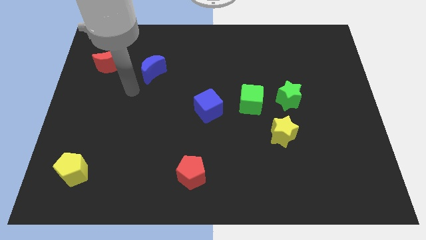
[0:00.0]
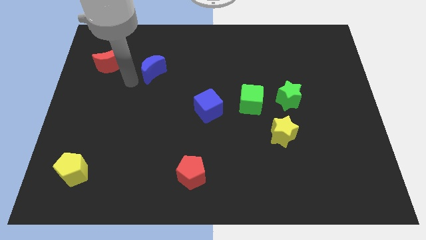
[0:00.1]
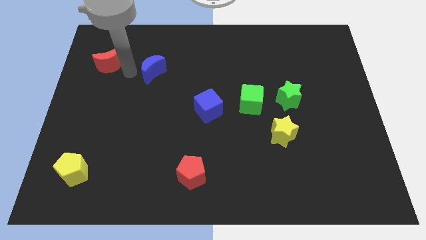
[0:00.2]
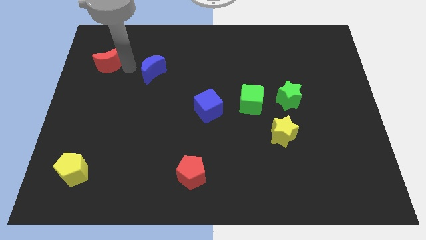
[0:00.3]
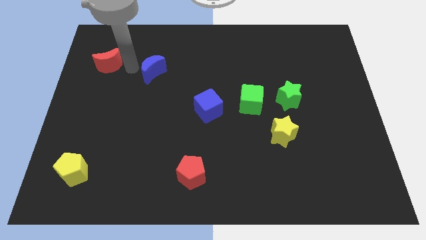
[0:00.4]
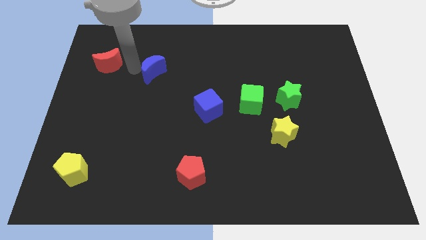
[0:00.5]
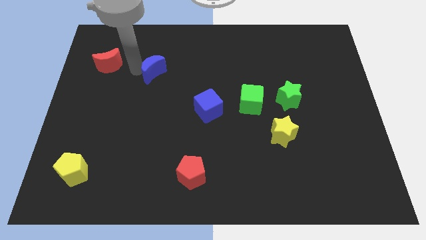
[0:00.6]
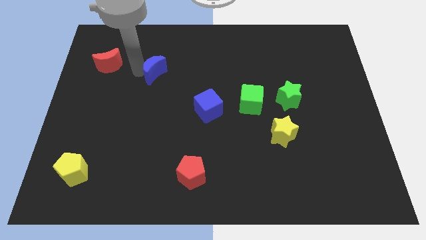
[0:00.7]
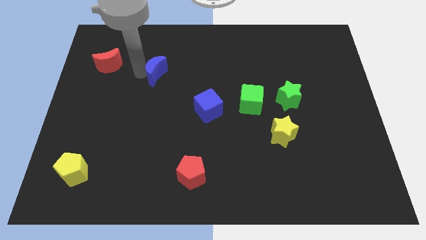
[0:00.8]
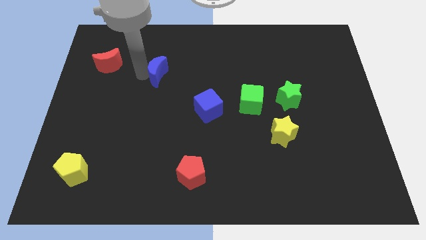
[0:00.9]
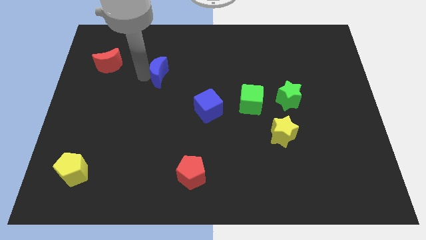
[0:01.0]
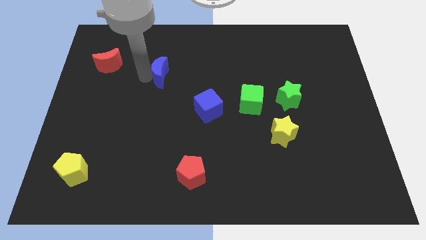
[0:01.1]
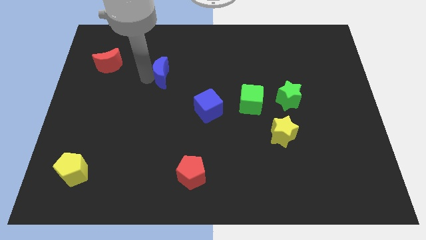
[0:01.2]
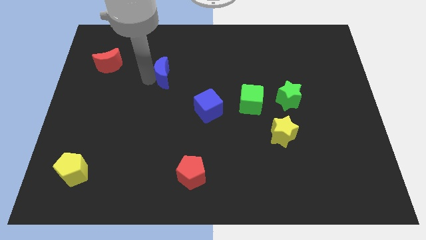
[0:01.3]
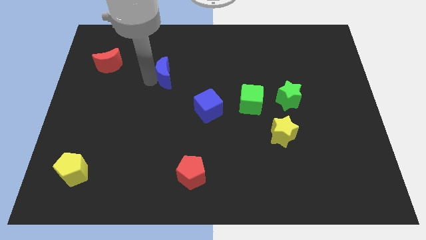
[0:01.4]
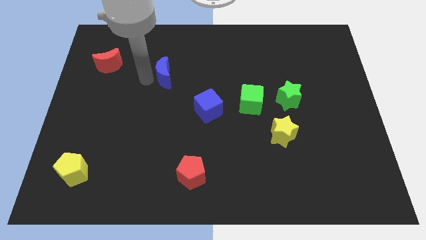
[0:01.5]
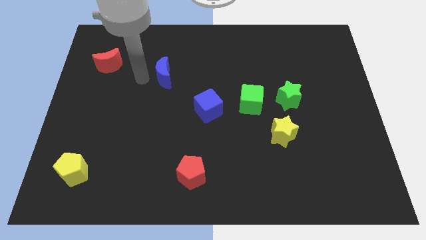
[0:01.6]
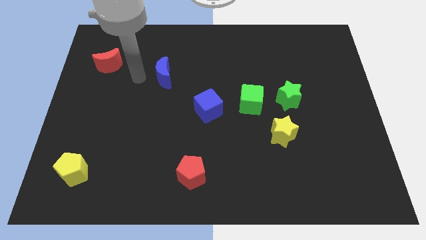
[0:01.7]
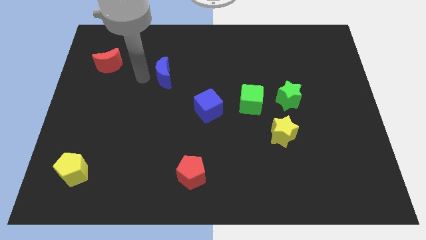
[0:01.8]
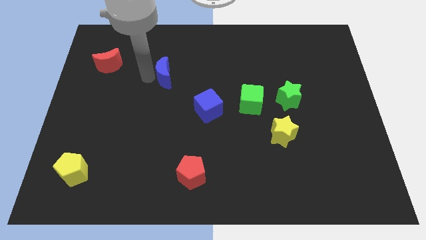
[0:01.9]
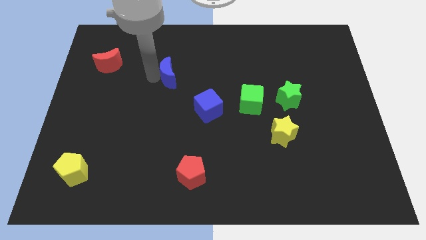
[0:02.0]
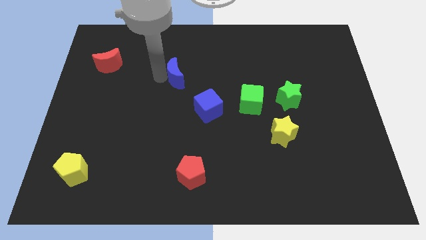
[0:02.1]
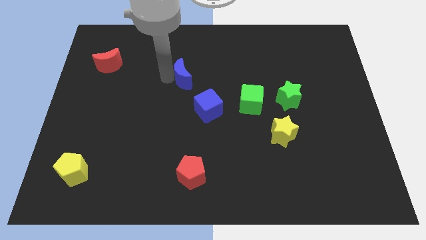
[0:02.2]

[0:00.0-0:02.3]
slide the blue moon a bit to the right

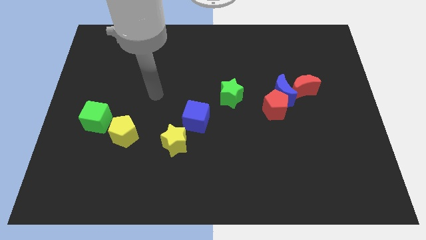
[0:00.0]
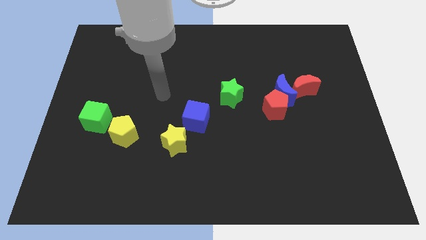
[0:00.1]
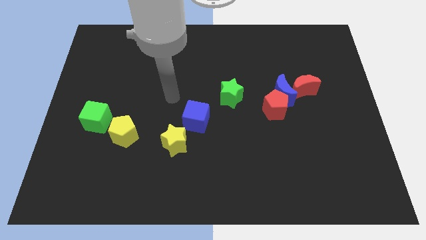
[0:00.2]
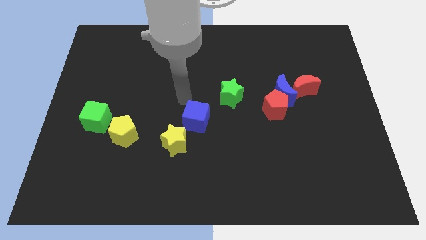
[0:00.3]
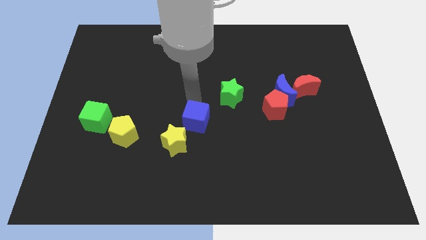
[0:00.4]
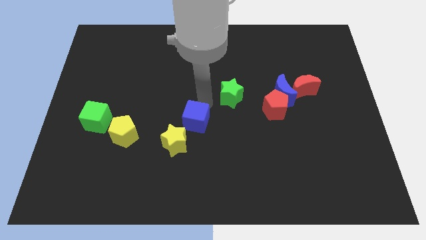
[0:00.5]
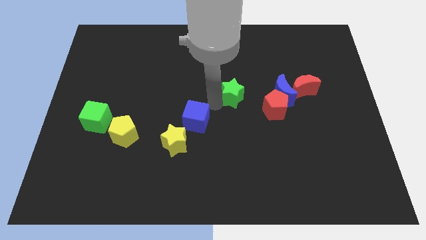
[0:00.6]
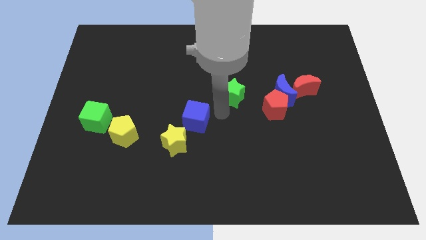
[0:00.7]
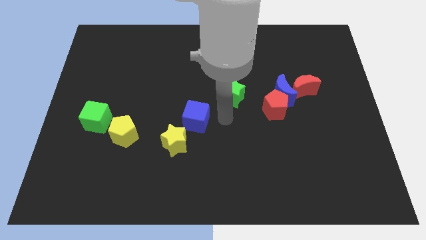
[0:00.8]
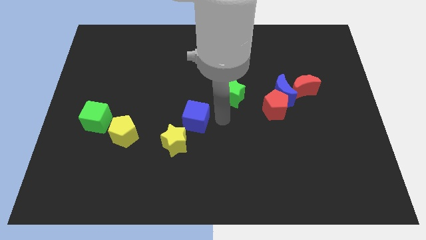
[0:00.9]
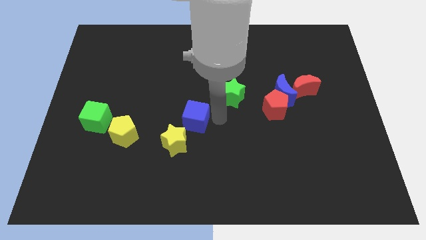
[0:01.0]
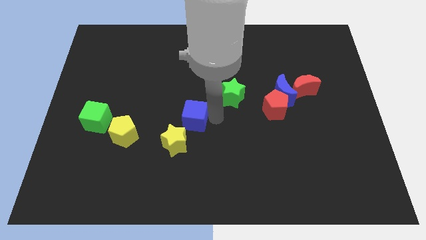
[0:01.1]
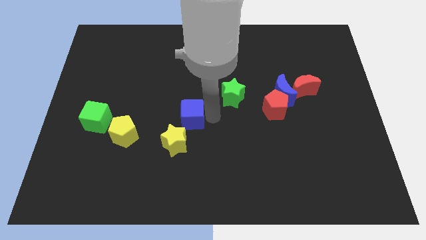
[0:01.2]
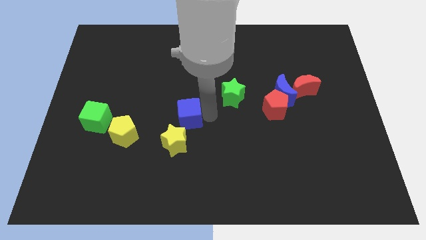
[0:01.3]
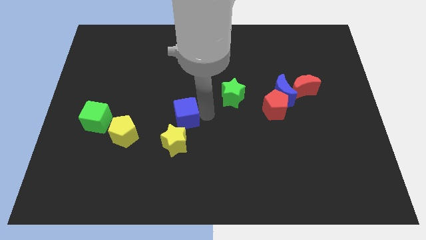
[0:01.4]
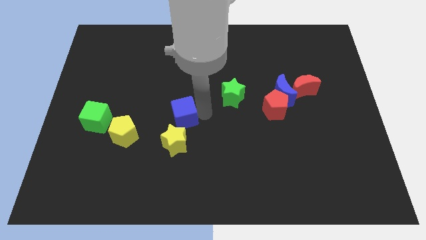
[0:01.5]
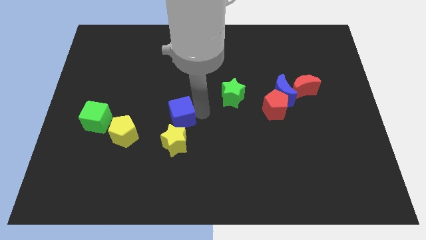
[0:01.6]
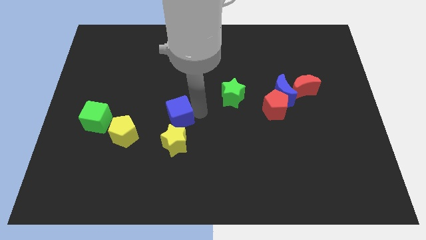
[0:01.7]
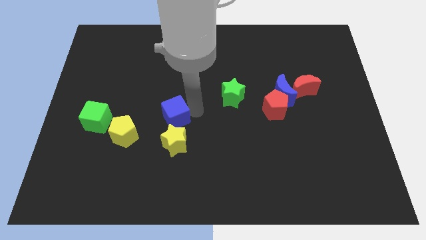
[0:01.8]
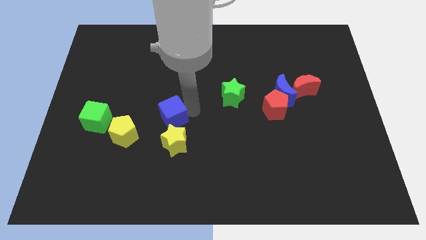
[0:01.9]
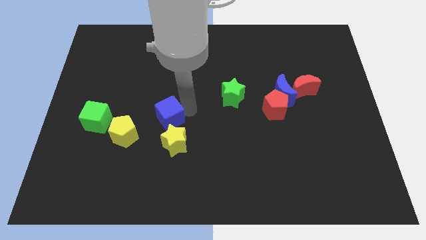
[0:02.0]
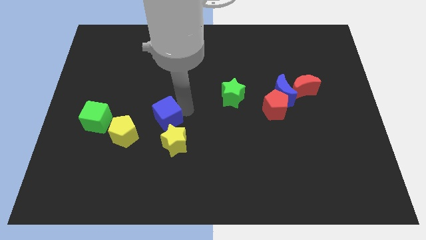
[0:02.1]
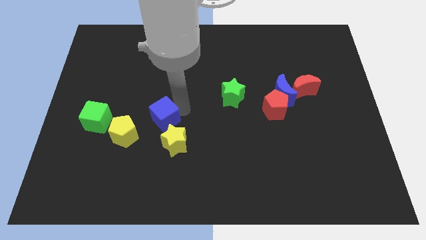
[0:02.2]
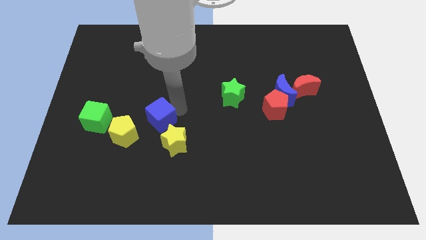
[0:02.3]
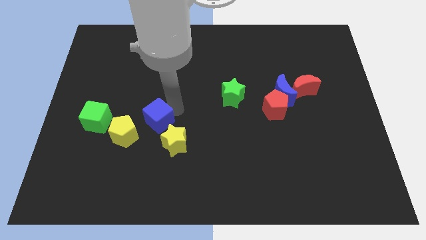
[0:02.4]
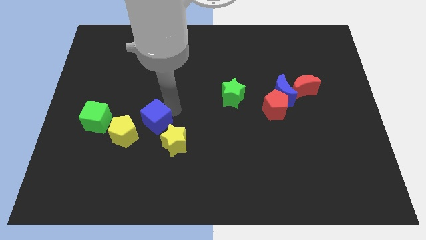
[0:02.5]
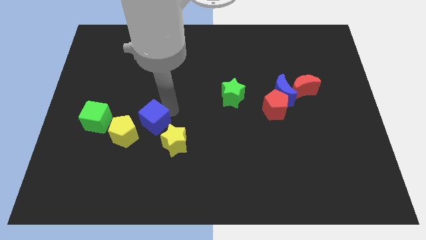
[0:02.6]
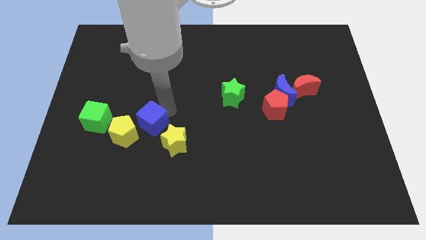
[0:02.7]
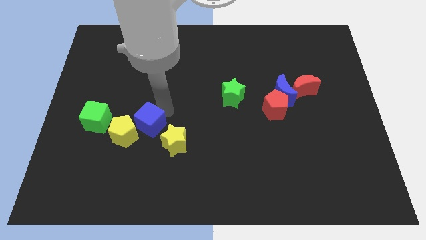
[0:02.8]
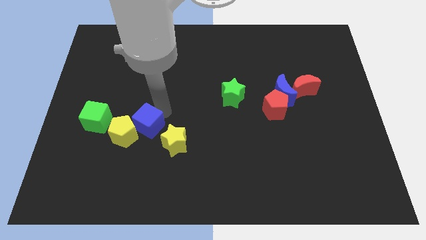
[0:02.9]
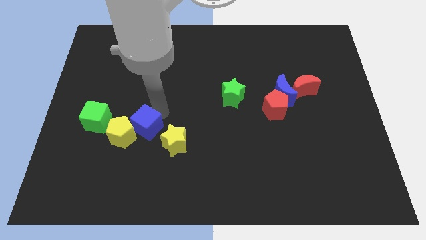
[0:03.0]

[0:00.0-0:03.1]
move the blue cube somewhat down and then to the left

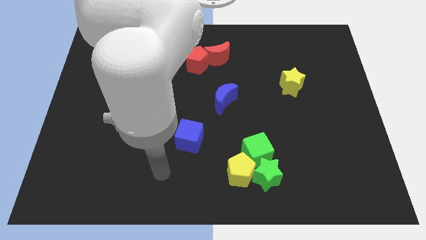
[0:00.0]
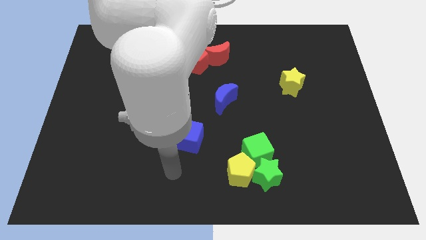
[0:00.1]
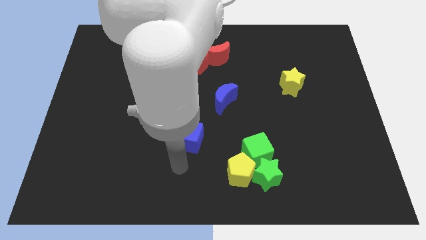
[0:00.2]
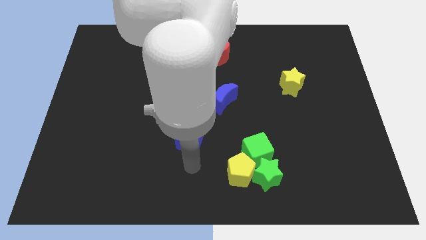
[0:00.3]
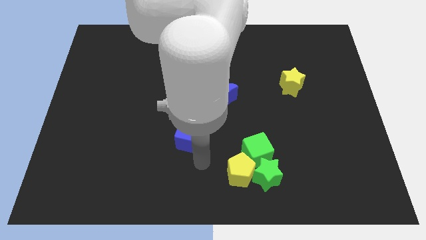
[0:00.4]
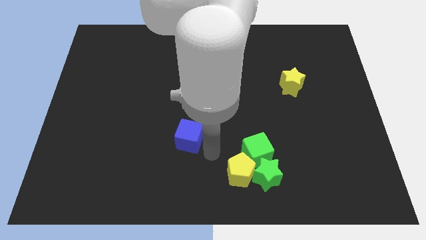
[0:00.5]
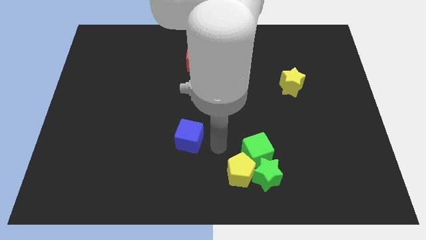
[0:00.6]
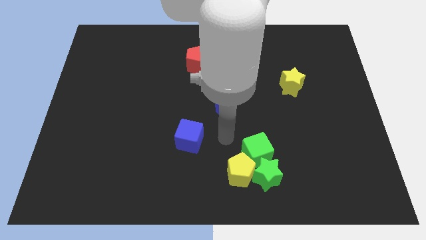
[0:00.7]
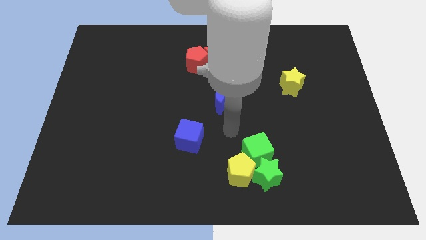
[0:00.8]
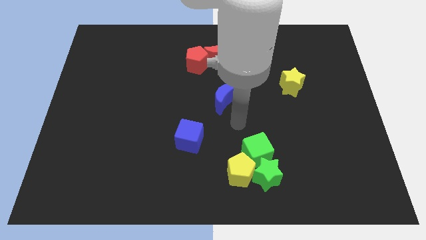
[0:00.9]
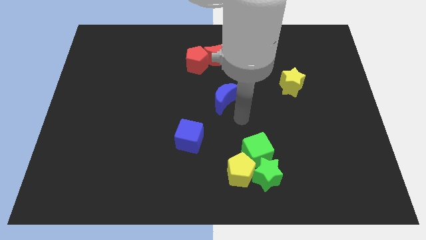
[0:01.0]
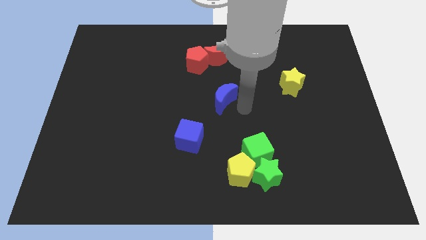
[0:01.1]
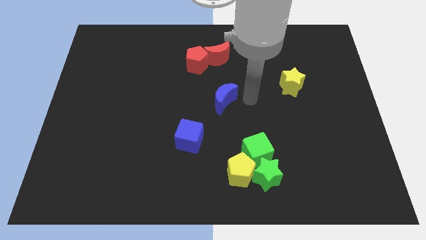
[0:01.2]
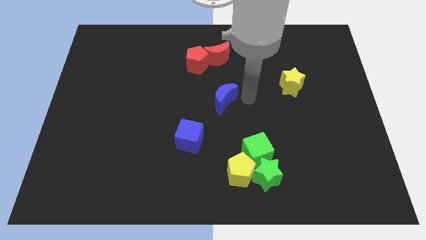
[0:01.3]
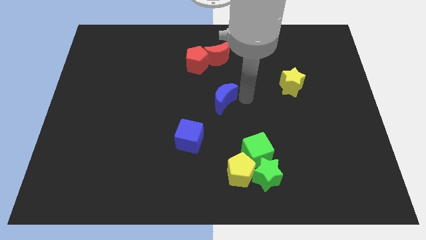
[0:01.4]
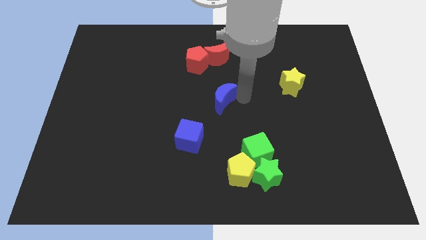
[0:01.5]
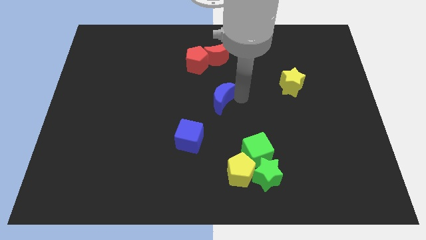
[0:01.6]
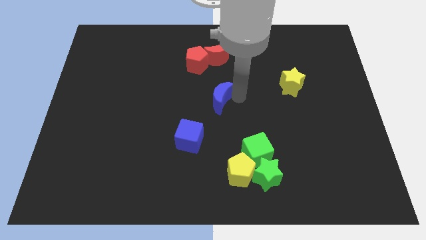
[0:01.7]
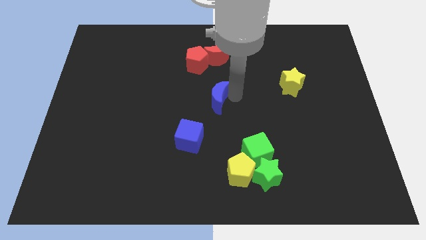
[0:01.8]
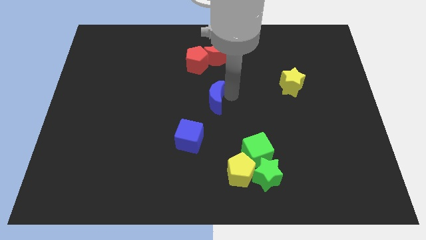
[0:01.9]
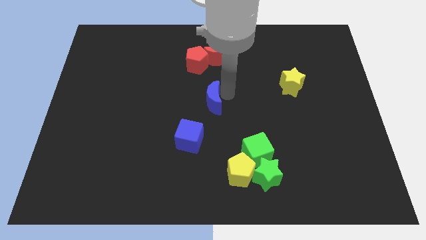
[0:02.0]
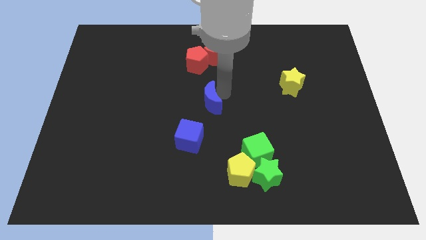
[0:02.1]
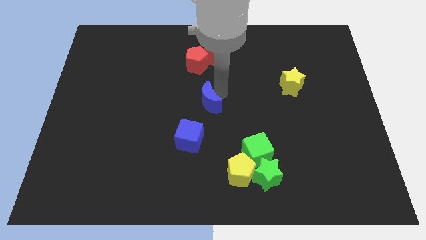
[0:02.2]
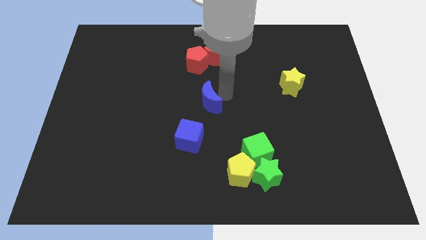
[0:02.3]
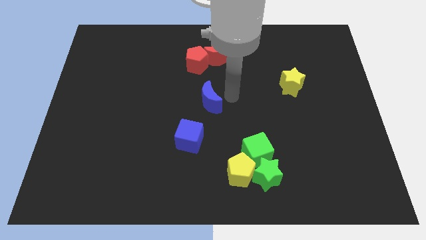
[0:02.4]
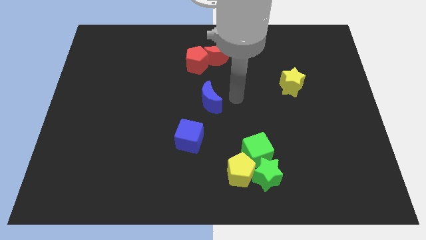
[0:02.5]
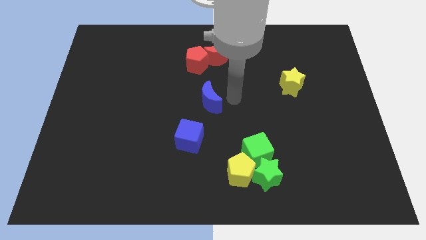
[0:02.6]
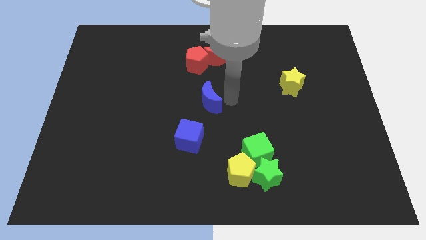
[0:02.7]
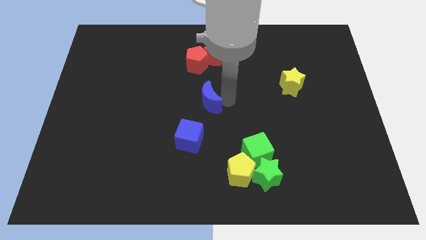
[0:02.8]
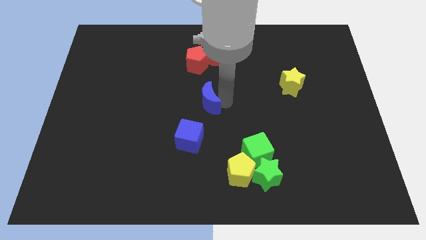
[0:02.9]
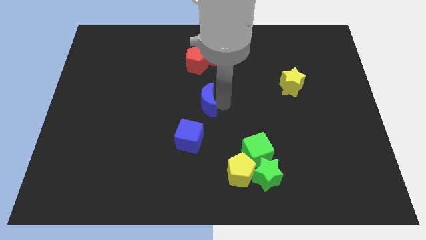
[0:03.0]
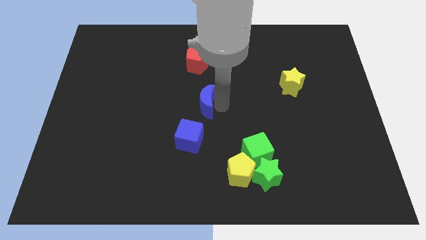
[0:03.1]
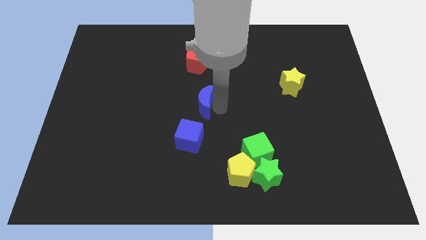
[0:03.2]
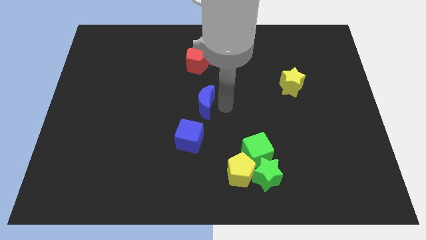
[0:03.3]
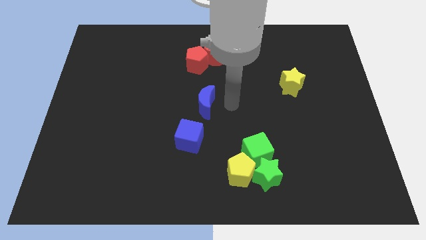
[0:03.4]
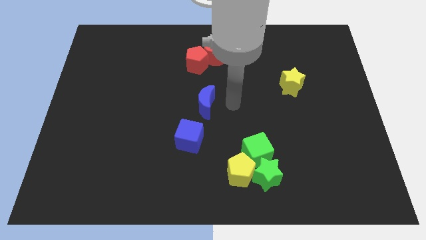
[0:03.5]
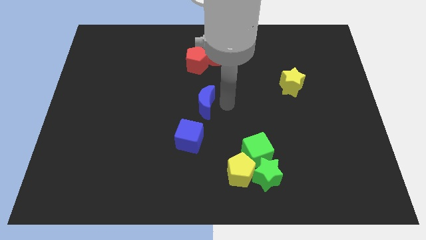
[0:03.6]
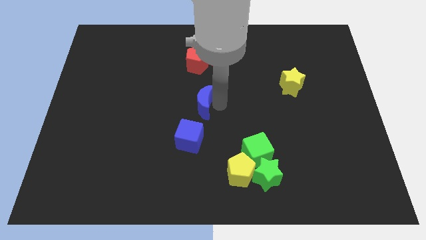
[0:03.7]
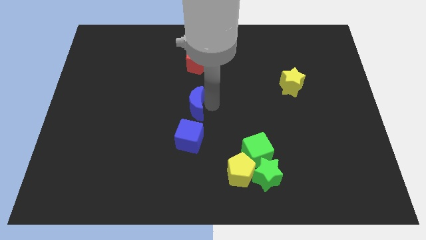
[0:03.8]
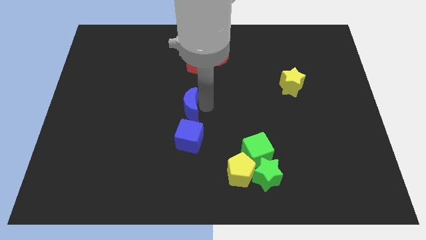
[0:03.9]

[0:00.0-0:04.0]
slide the blue moon somewhat to the left
